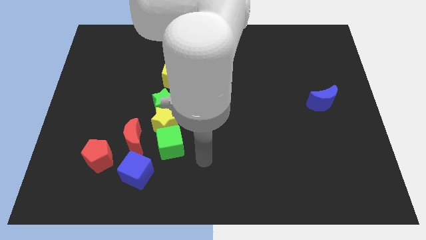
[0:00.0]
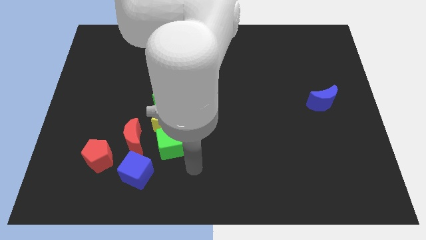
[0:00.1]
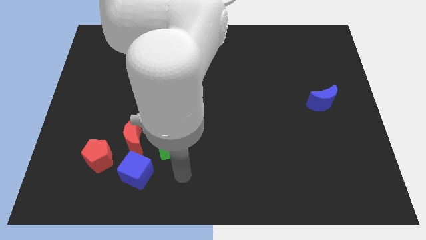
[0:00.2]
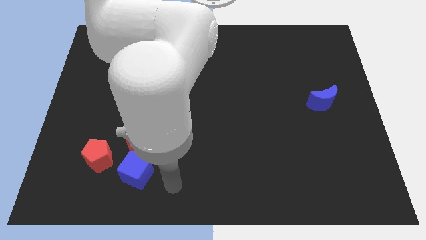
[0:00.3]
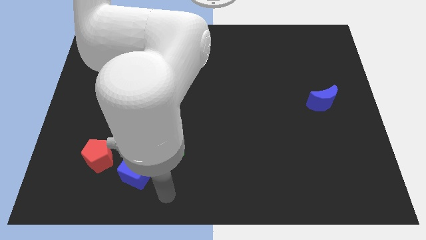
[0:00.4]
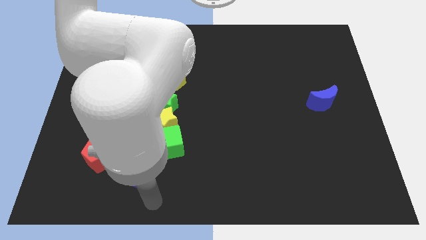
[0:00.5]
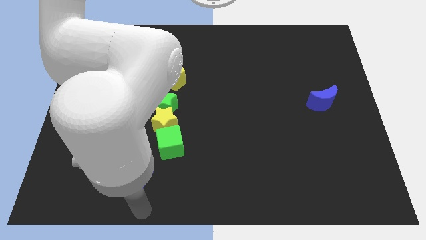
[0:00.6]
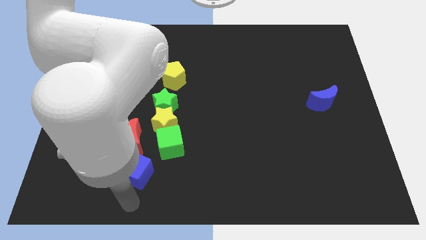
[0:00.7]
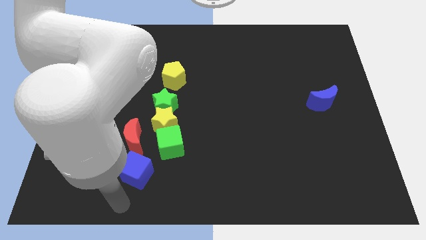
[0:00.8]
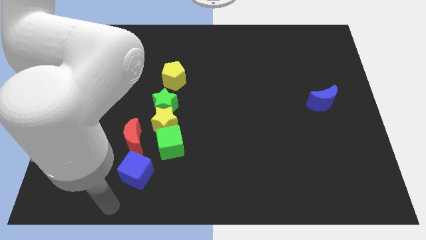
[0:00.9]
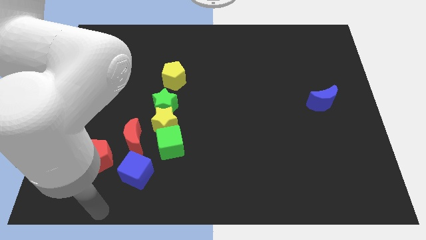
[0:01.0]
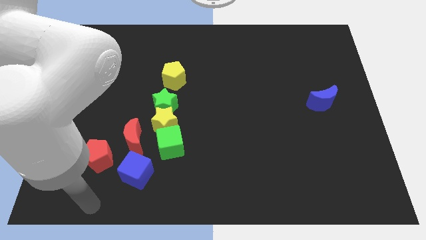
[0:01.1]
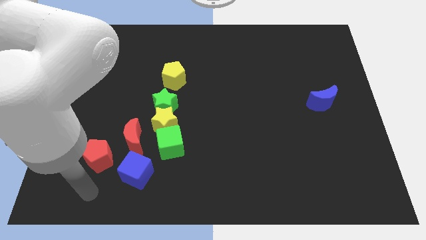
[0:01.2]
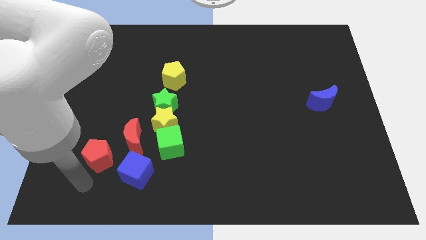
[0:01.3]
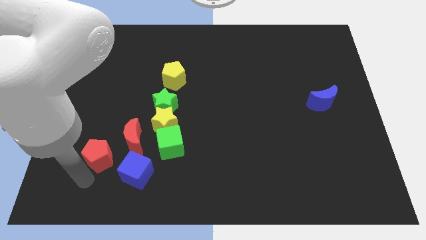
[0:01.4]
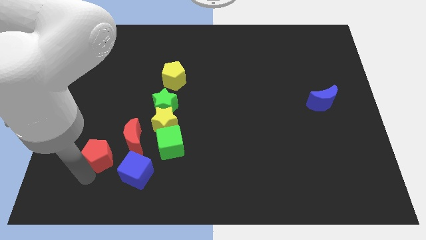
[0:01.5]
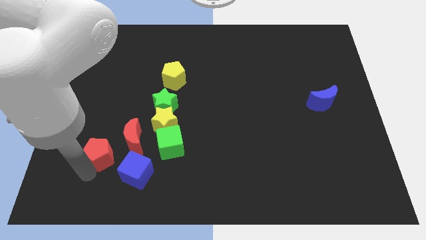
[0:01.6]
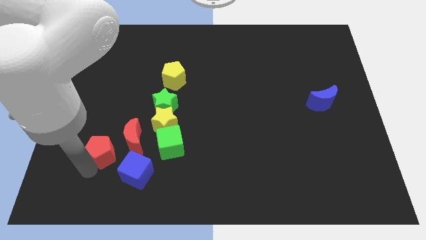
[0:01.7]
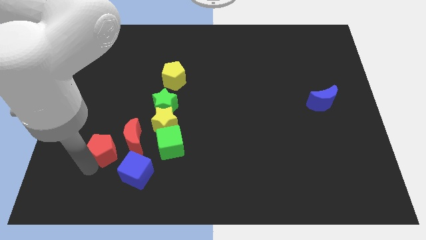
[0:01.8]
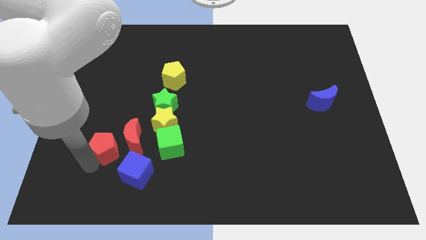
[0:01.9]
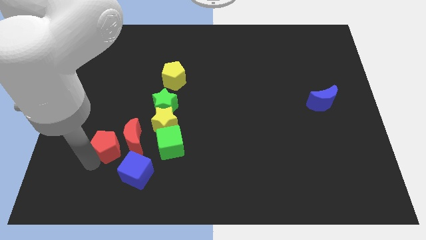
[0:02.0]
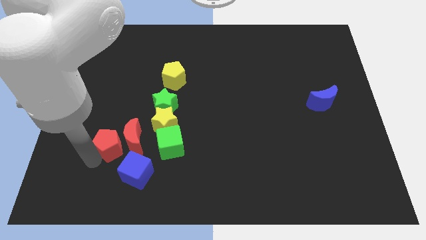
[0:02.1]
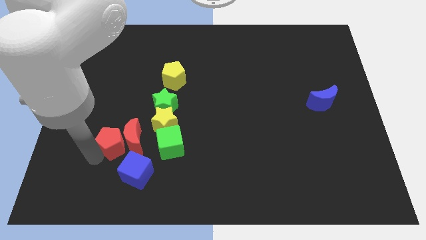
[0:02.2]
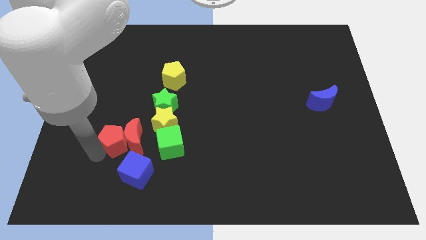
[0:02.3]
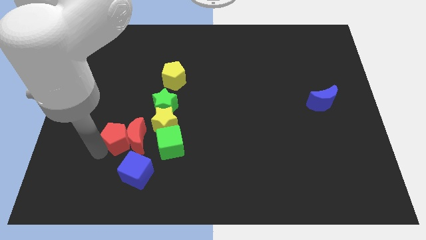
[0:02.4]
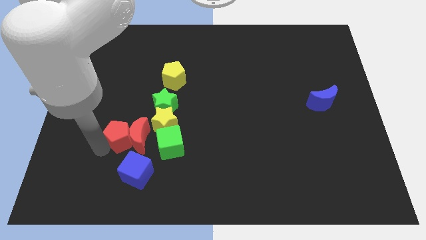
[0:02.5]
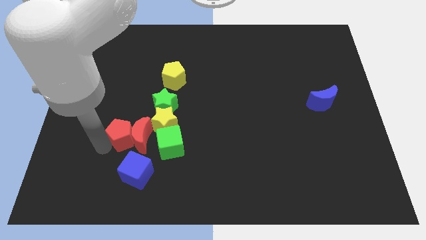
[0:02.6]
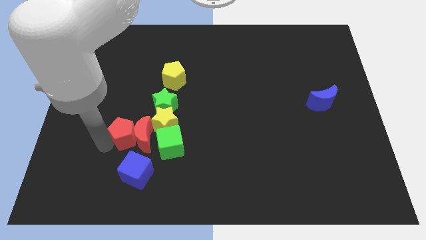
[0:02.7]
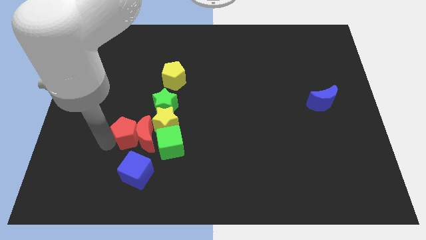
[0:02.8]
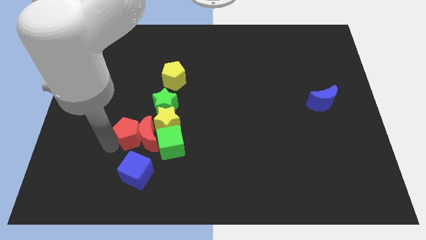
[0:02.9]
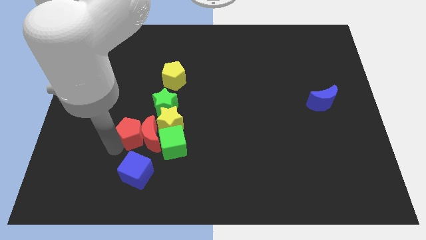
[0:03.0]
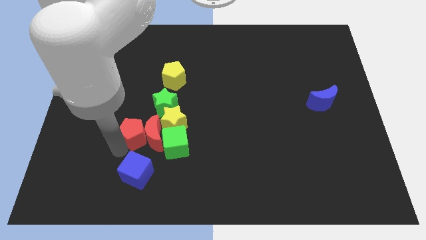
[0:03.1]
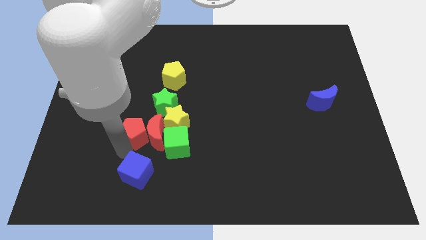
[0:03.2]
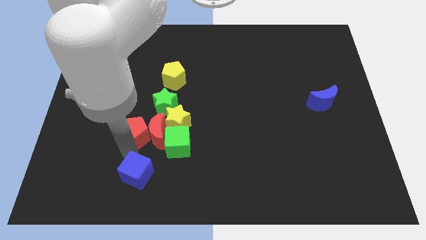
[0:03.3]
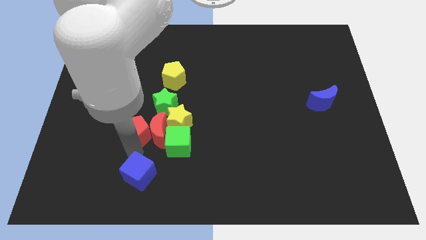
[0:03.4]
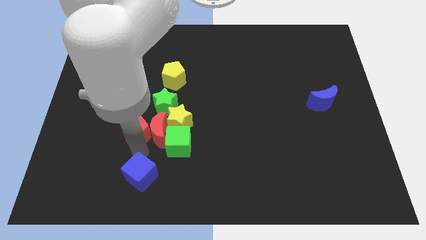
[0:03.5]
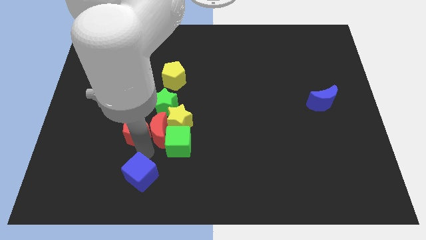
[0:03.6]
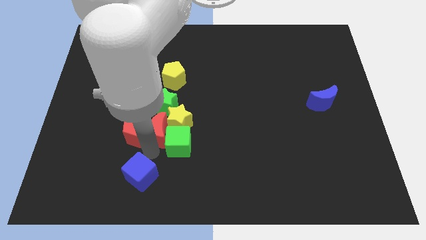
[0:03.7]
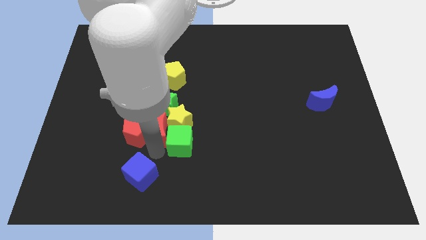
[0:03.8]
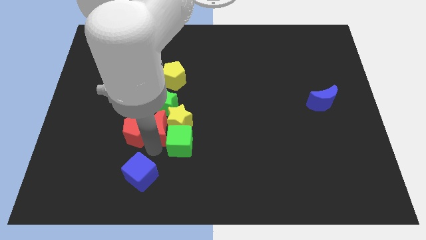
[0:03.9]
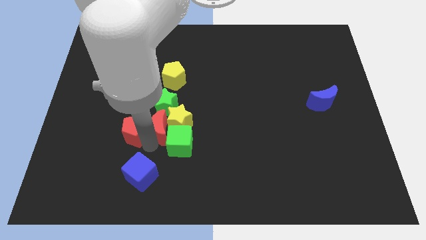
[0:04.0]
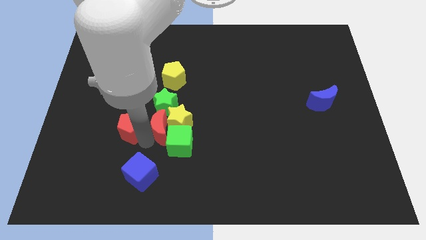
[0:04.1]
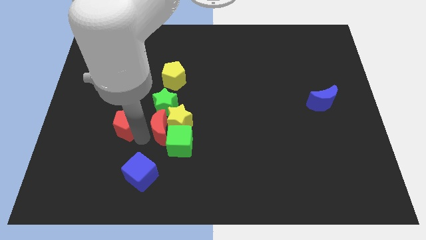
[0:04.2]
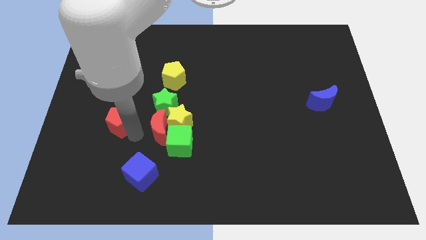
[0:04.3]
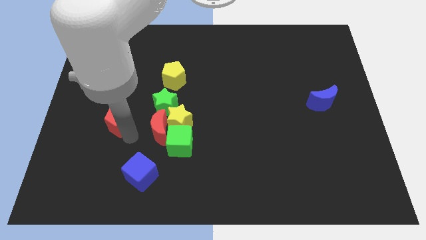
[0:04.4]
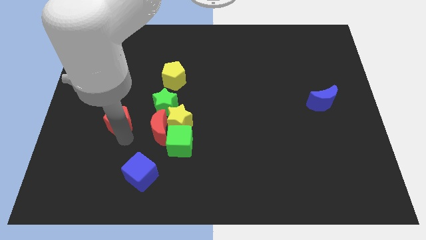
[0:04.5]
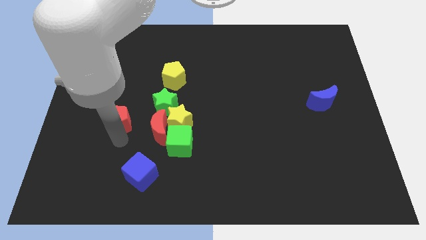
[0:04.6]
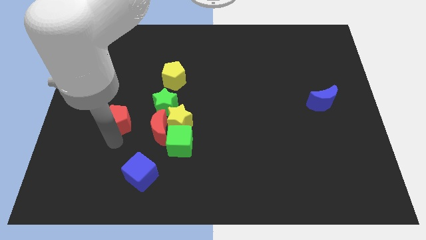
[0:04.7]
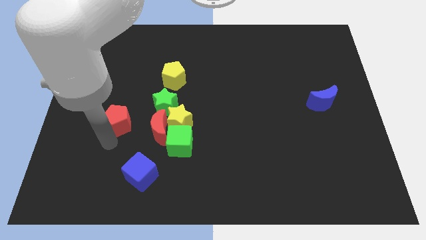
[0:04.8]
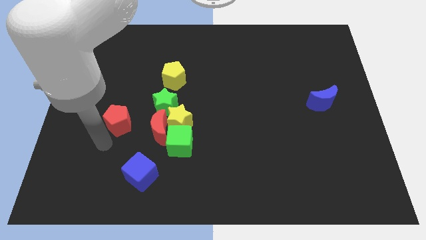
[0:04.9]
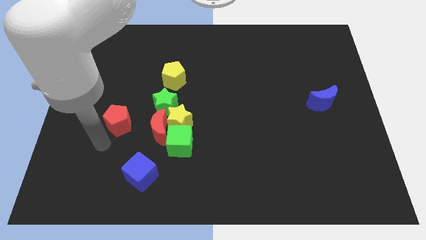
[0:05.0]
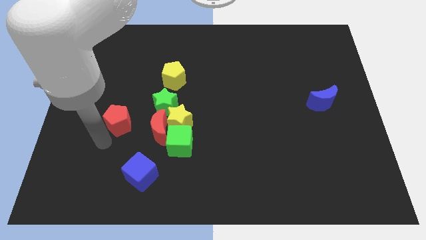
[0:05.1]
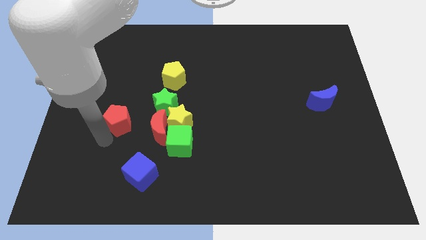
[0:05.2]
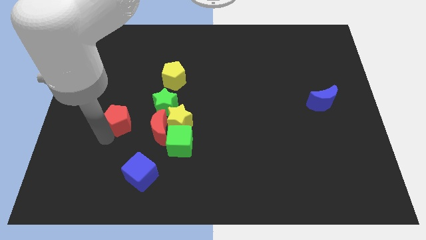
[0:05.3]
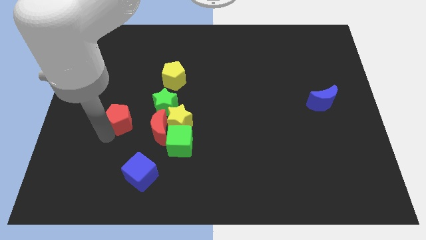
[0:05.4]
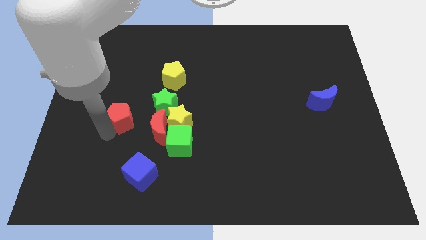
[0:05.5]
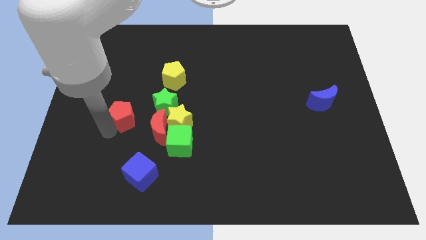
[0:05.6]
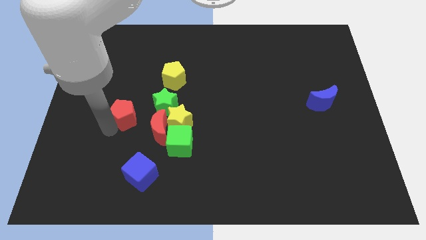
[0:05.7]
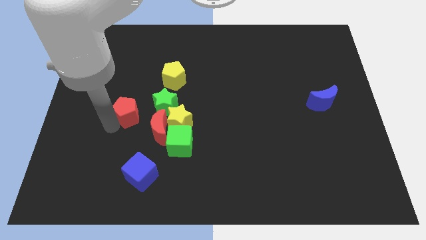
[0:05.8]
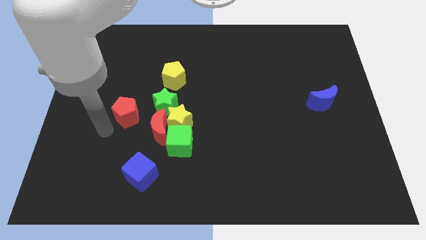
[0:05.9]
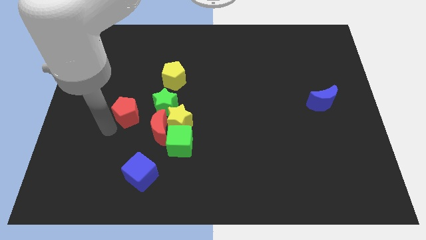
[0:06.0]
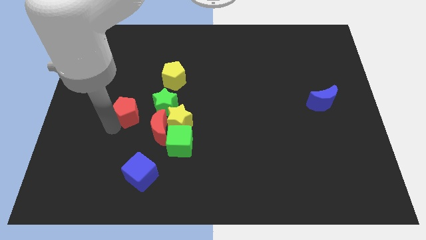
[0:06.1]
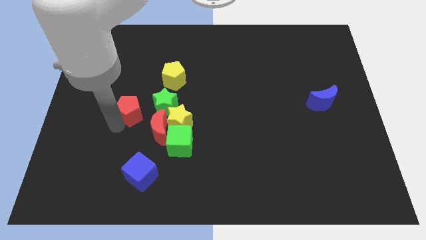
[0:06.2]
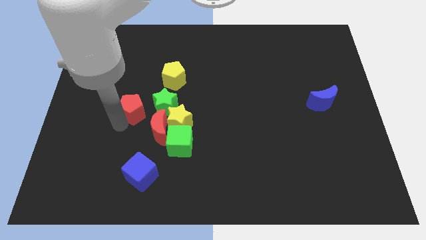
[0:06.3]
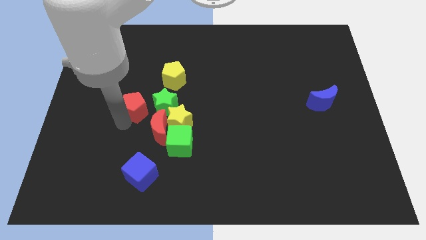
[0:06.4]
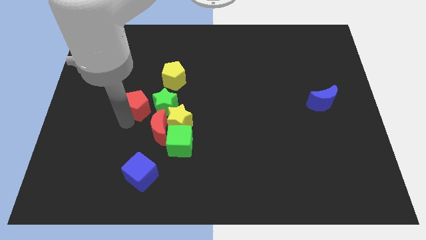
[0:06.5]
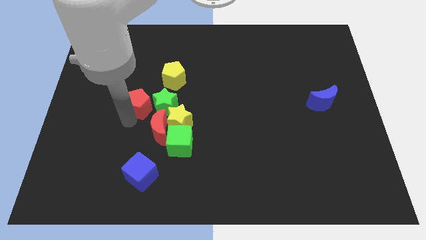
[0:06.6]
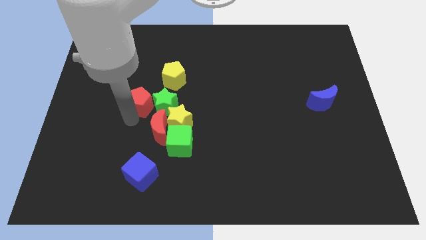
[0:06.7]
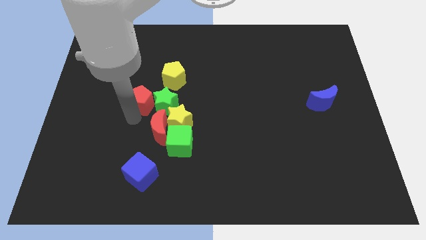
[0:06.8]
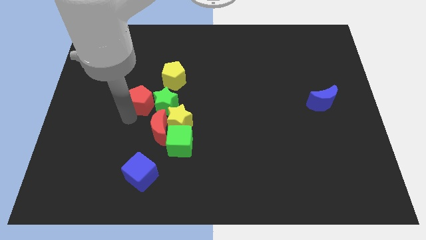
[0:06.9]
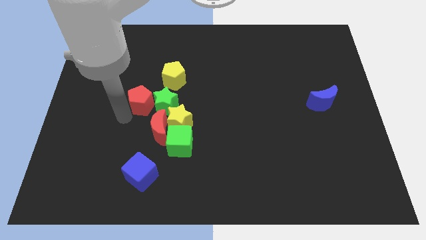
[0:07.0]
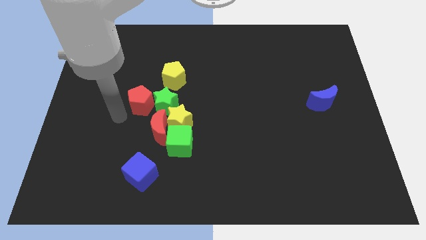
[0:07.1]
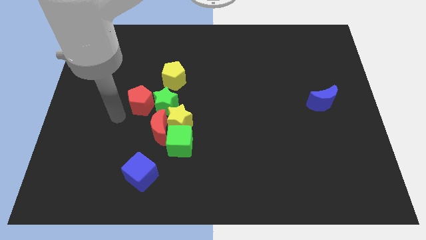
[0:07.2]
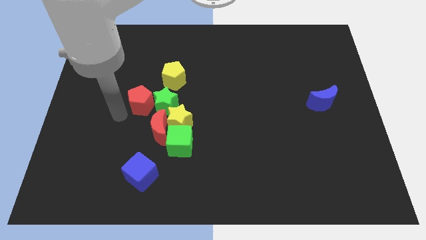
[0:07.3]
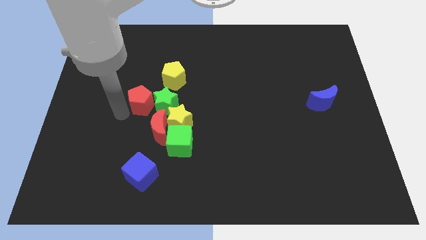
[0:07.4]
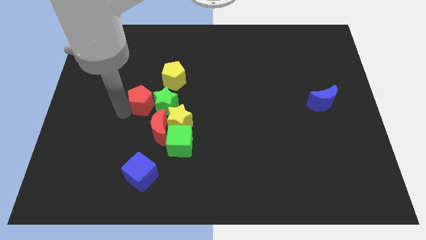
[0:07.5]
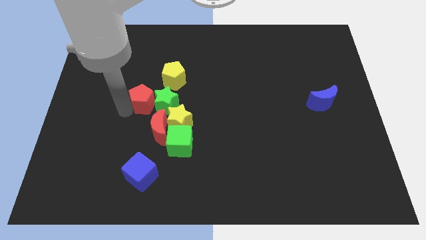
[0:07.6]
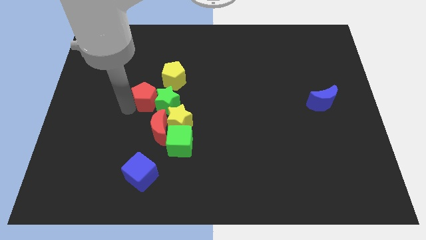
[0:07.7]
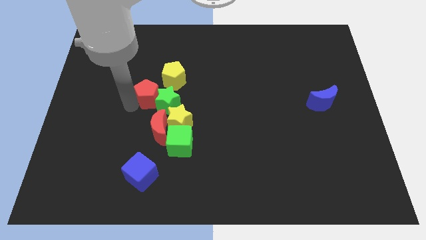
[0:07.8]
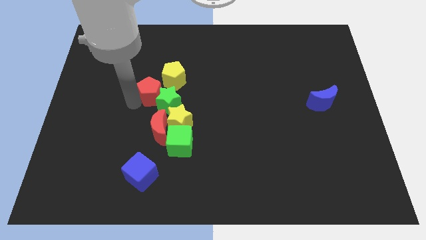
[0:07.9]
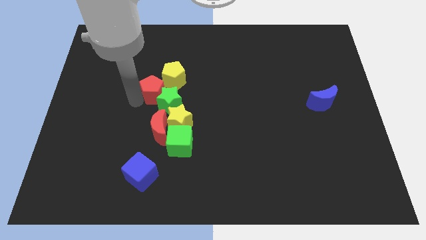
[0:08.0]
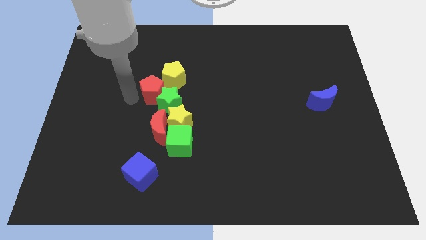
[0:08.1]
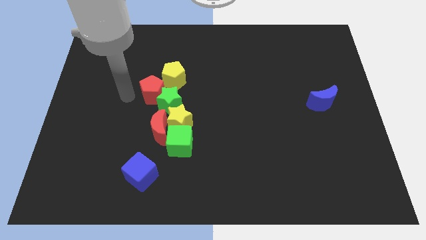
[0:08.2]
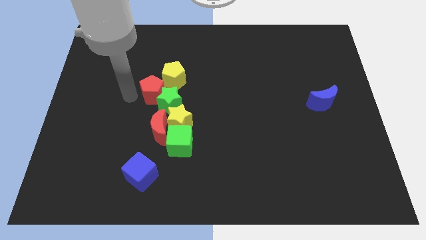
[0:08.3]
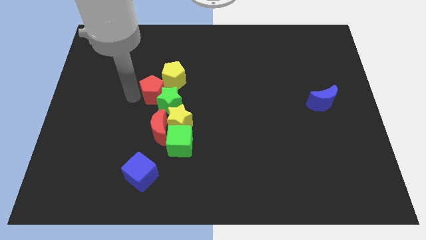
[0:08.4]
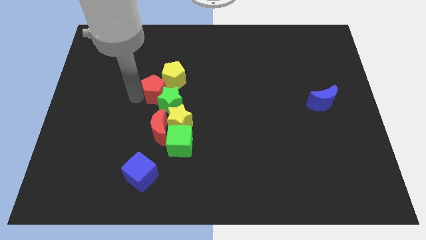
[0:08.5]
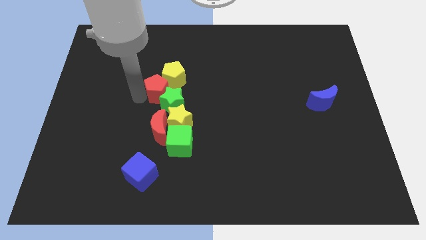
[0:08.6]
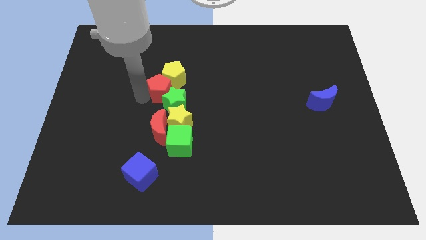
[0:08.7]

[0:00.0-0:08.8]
slide the red pentagon diagonally upwards and to the right
